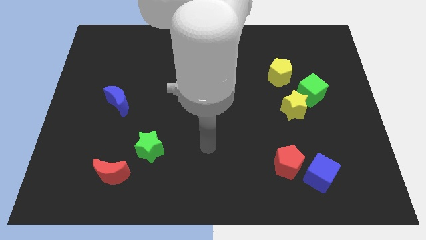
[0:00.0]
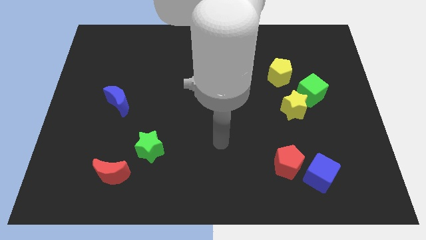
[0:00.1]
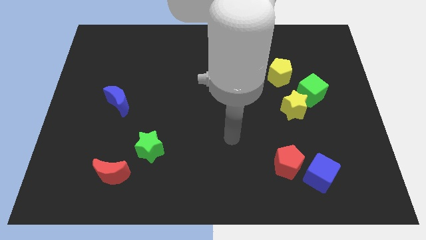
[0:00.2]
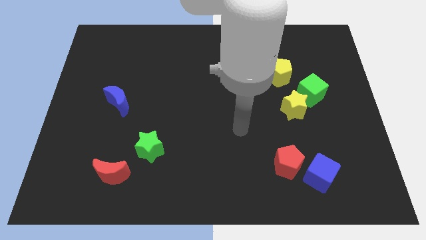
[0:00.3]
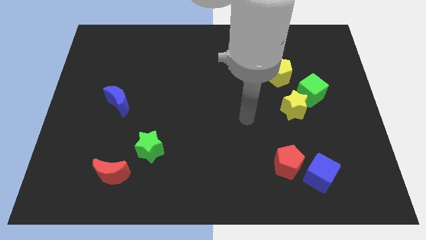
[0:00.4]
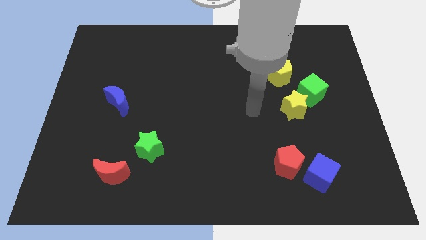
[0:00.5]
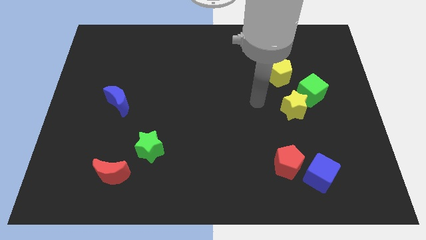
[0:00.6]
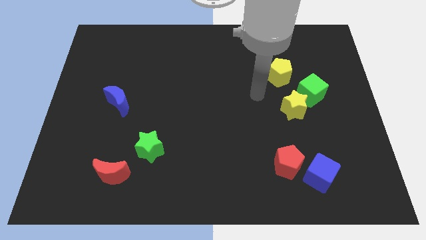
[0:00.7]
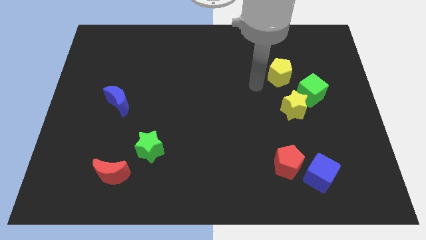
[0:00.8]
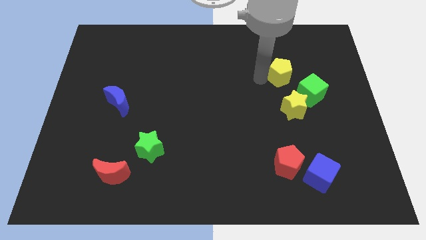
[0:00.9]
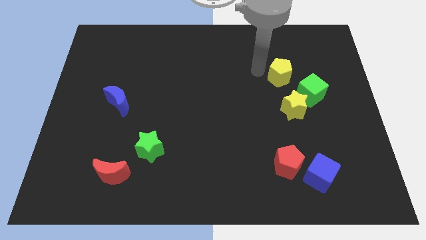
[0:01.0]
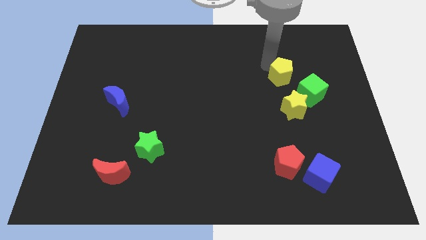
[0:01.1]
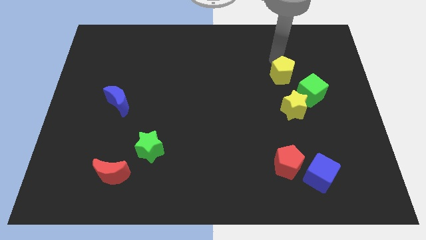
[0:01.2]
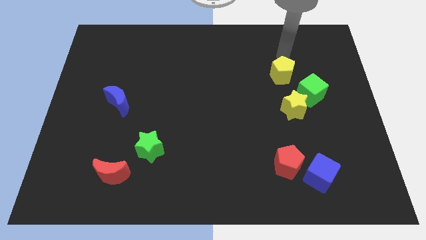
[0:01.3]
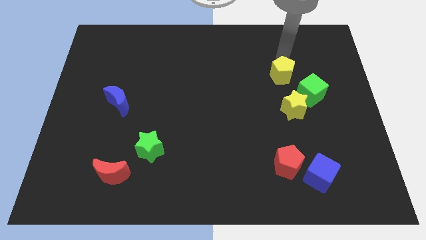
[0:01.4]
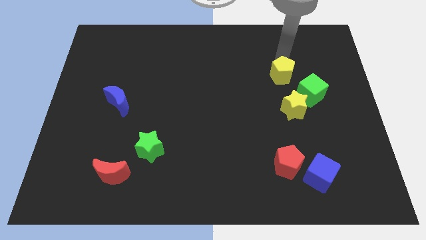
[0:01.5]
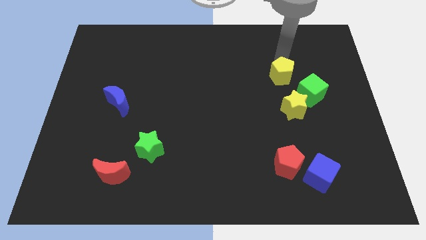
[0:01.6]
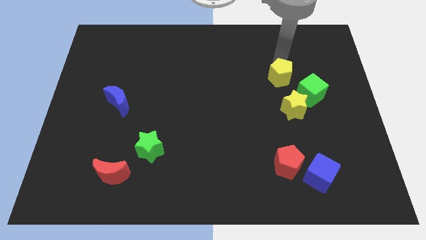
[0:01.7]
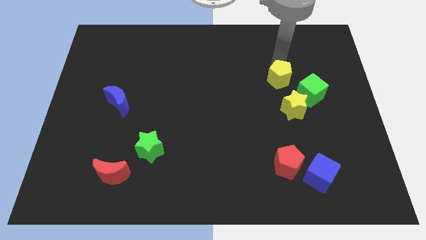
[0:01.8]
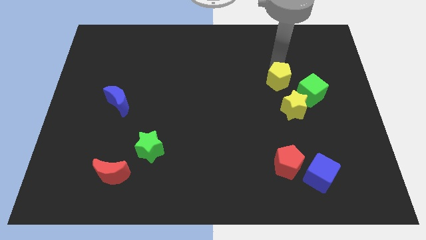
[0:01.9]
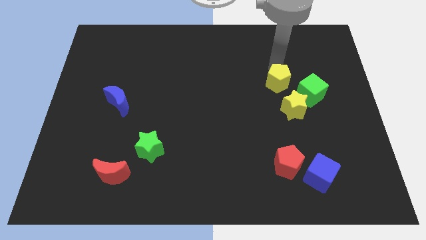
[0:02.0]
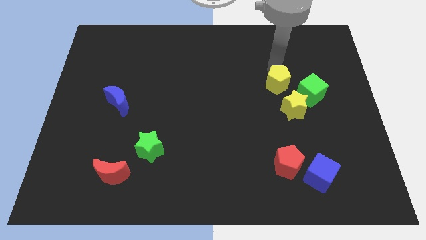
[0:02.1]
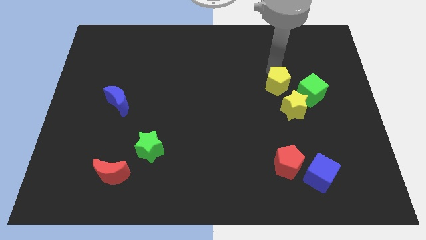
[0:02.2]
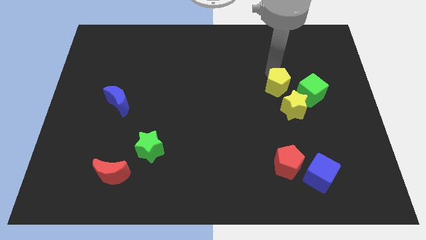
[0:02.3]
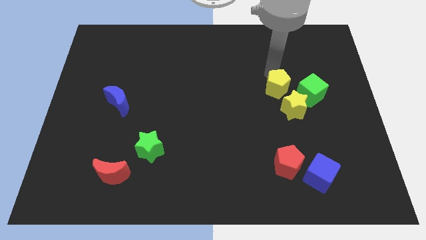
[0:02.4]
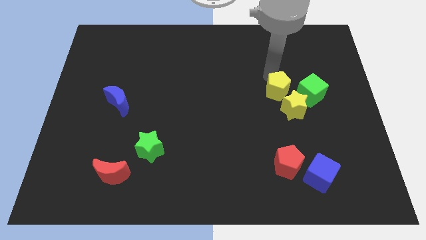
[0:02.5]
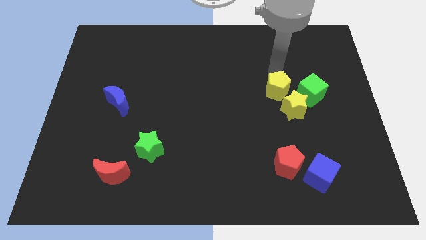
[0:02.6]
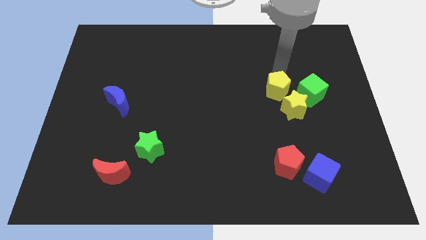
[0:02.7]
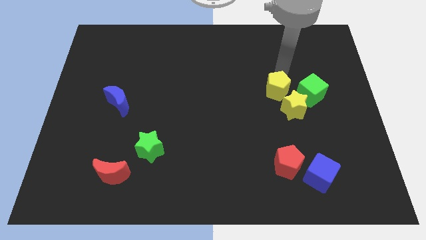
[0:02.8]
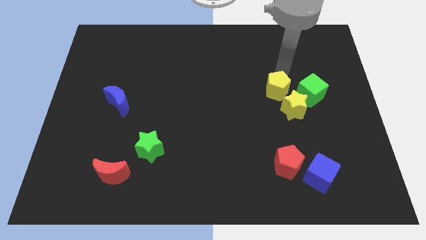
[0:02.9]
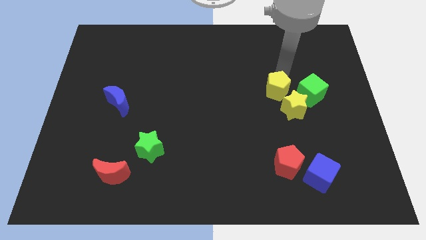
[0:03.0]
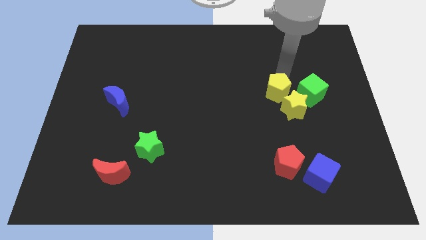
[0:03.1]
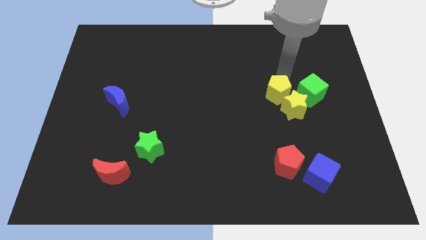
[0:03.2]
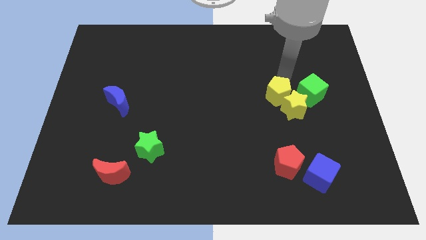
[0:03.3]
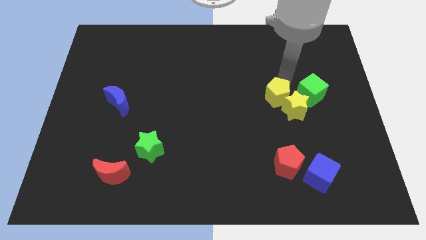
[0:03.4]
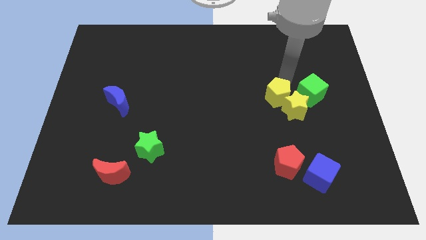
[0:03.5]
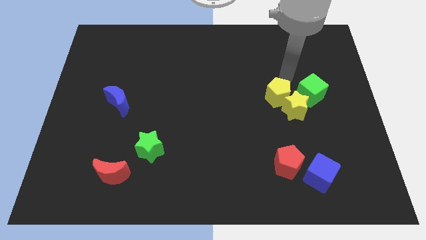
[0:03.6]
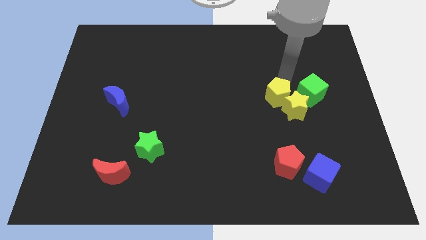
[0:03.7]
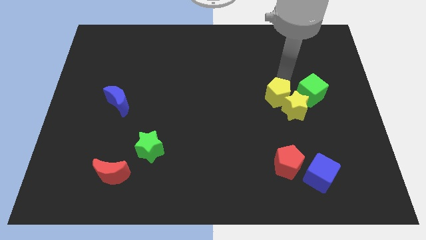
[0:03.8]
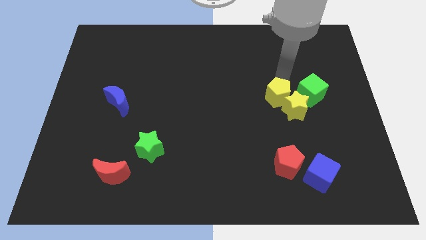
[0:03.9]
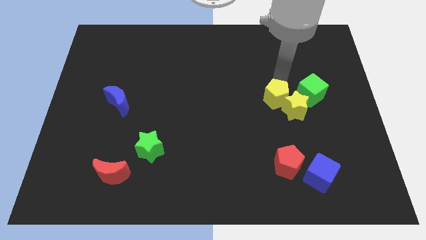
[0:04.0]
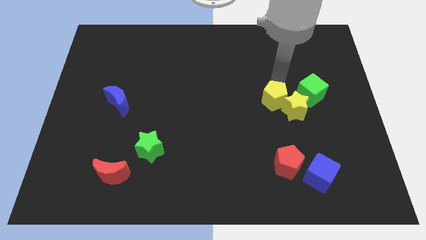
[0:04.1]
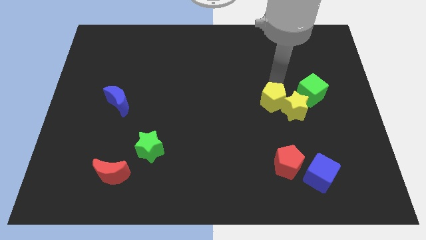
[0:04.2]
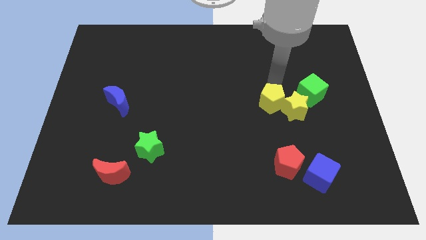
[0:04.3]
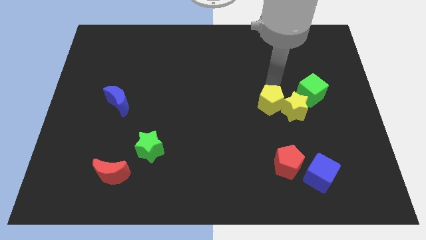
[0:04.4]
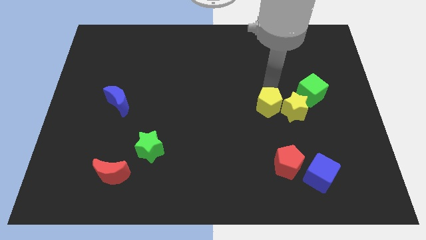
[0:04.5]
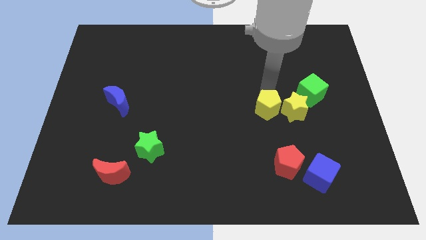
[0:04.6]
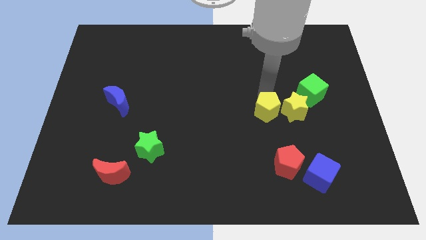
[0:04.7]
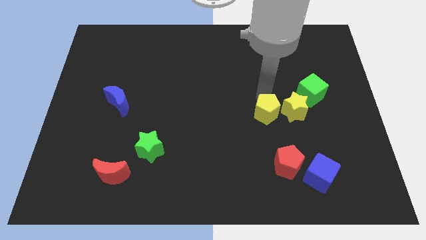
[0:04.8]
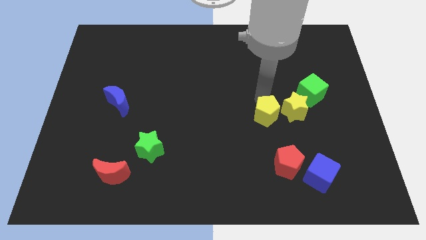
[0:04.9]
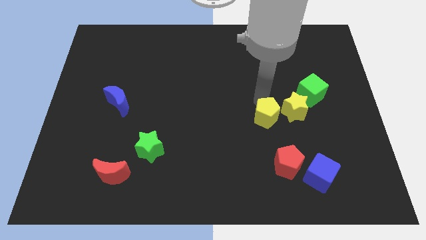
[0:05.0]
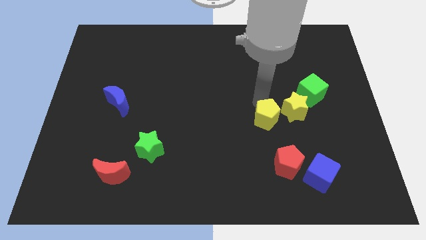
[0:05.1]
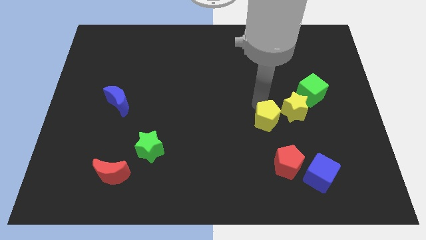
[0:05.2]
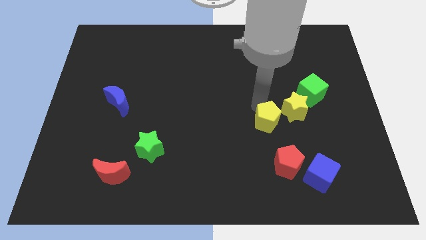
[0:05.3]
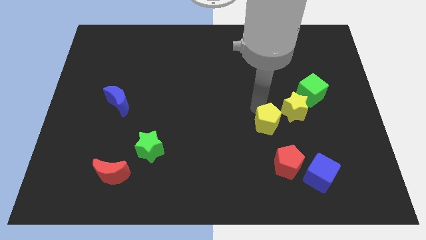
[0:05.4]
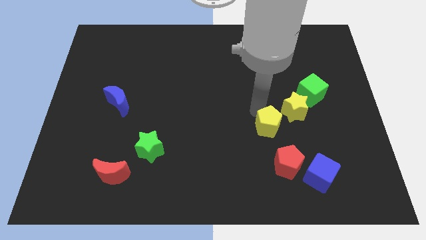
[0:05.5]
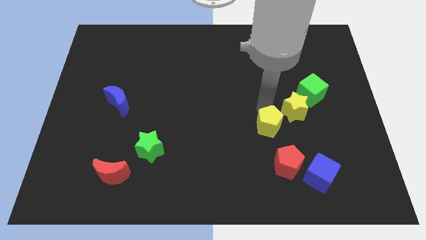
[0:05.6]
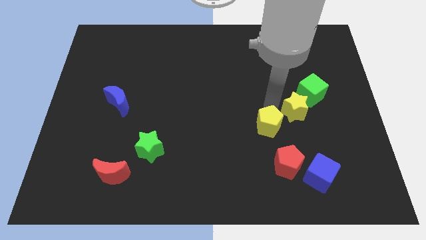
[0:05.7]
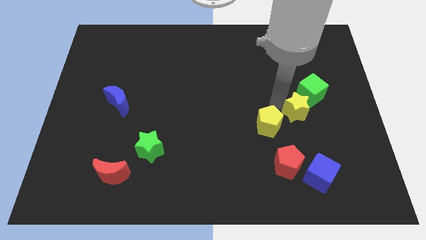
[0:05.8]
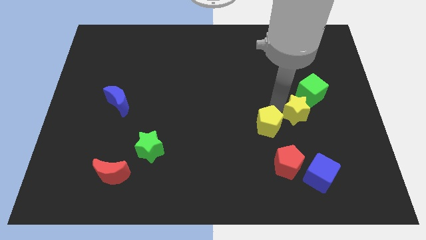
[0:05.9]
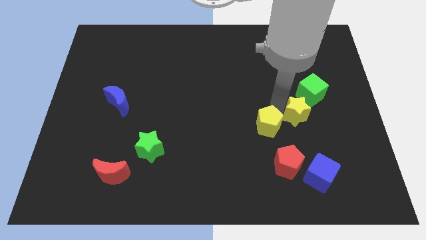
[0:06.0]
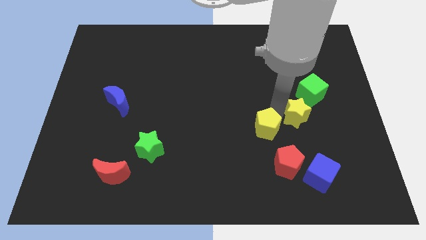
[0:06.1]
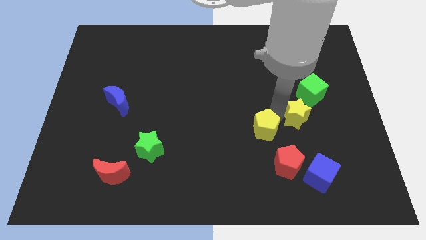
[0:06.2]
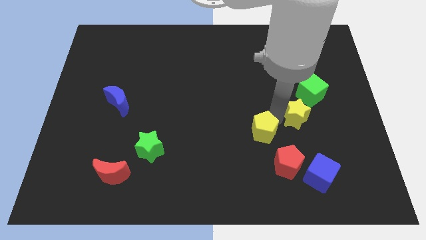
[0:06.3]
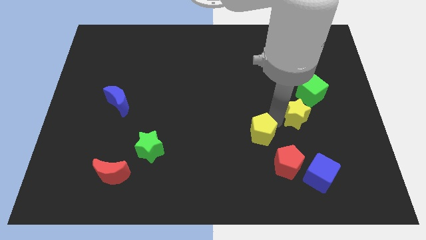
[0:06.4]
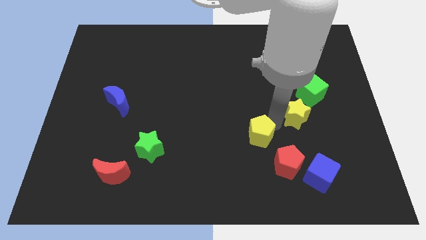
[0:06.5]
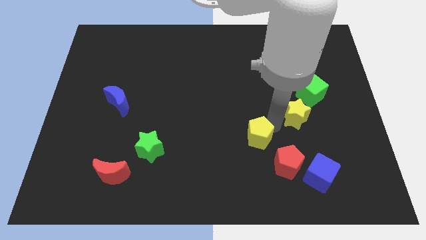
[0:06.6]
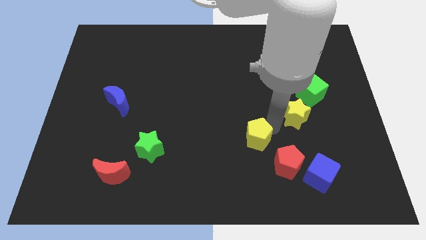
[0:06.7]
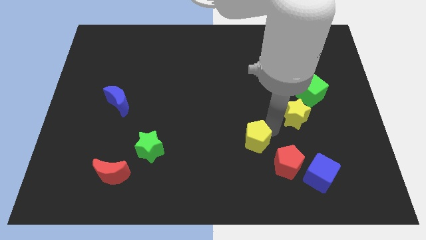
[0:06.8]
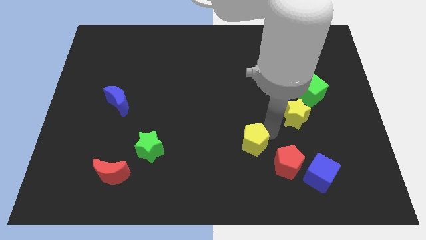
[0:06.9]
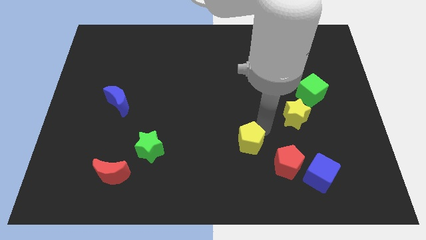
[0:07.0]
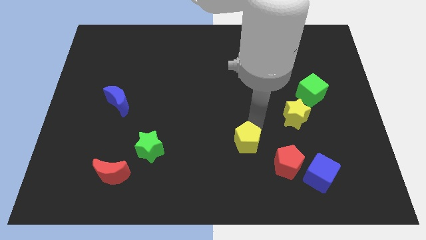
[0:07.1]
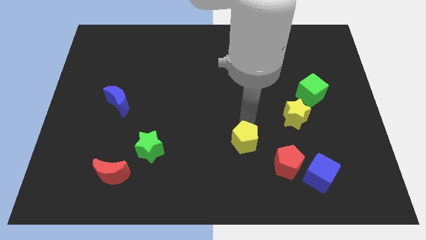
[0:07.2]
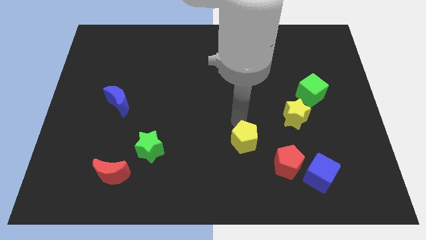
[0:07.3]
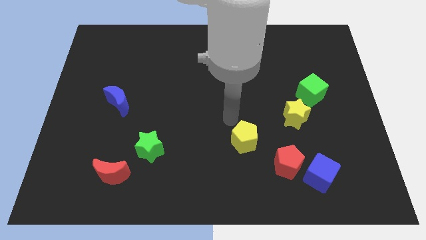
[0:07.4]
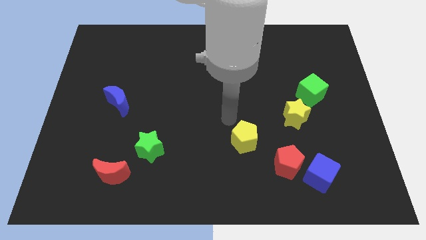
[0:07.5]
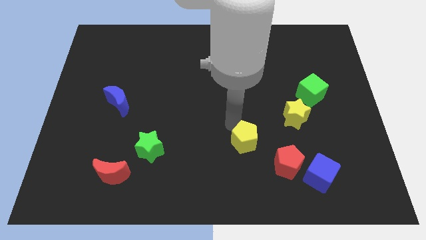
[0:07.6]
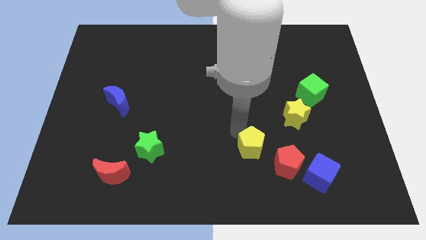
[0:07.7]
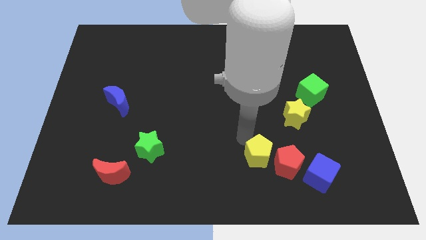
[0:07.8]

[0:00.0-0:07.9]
put the yellow pentagon left of the blue cube

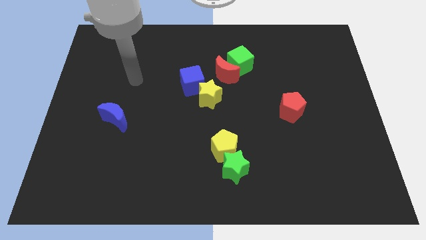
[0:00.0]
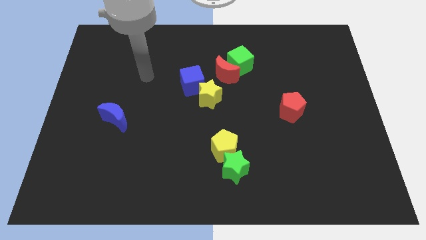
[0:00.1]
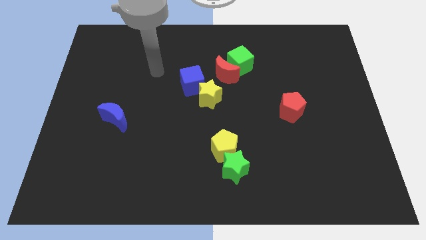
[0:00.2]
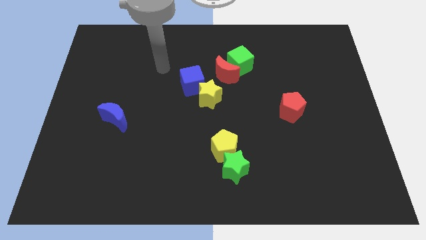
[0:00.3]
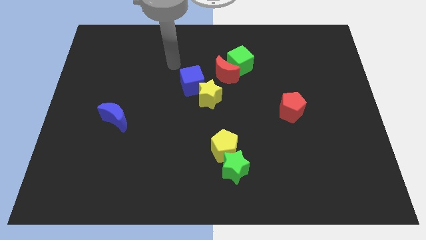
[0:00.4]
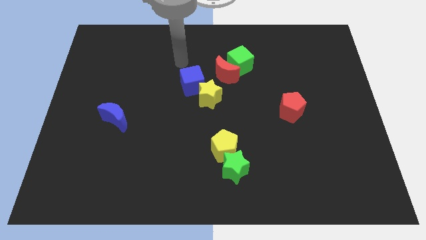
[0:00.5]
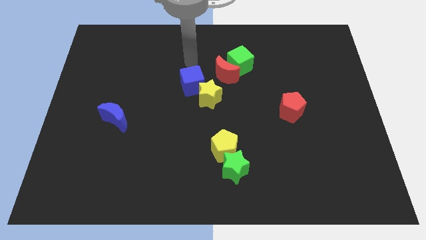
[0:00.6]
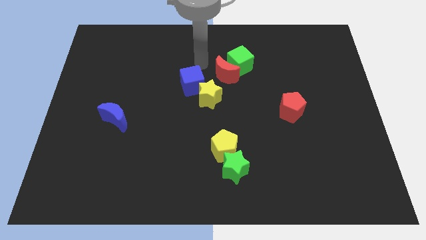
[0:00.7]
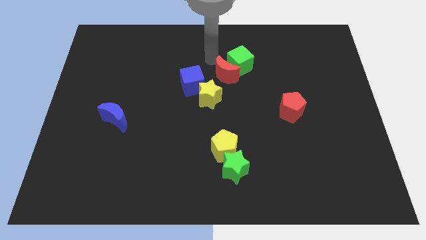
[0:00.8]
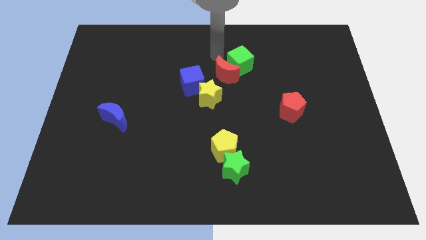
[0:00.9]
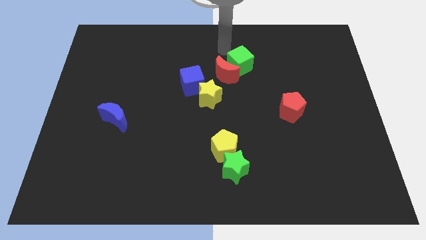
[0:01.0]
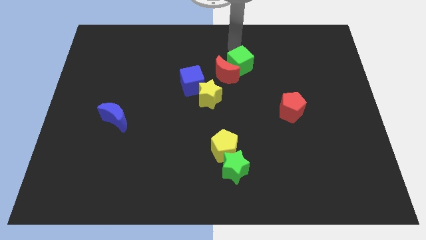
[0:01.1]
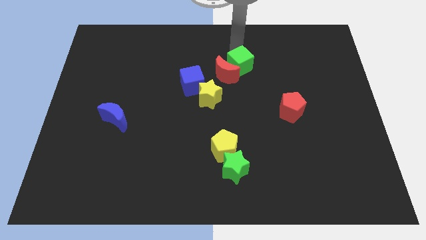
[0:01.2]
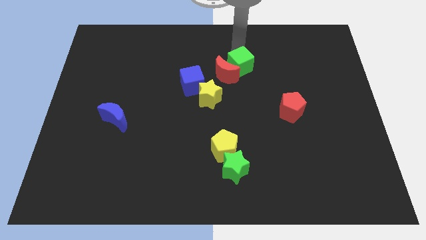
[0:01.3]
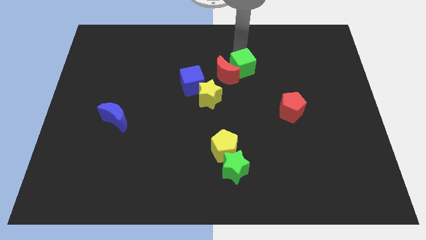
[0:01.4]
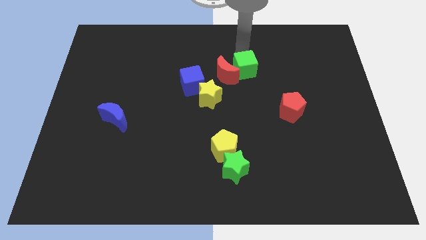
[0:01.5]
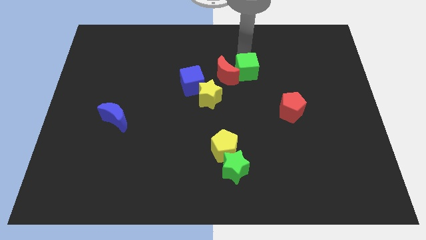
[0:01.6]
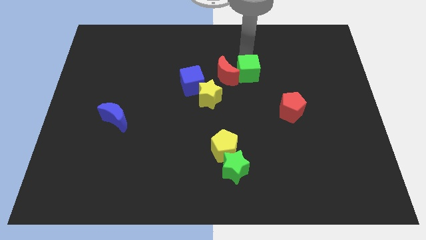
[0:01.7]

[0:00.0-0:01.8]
push the green cube to the bottom right side of the red moon
